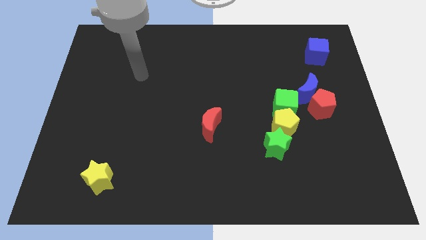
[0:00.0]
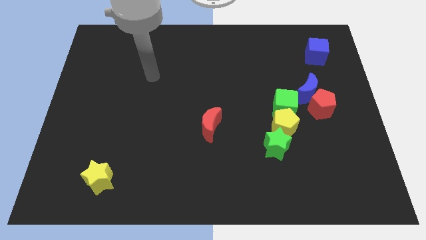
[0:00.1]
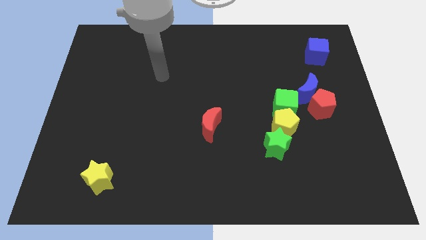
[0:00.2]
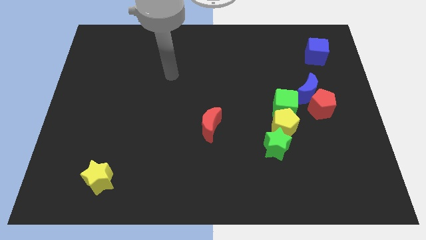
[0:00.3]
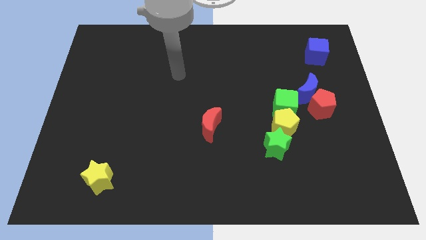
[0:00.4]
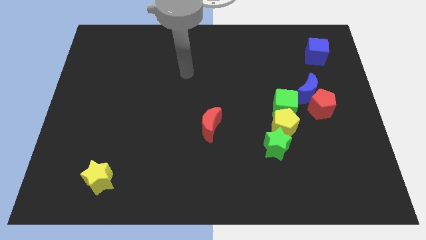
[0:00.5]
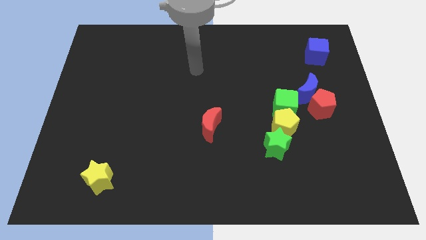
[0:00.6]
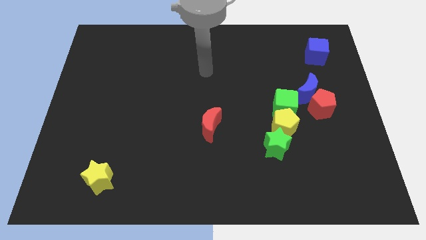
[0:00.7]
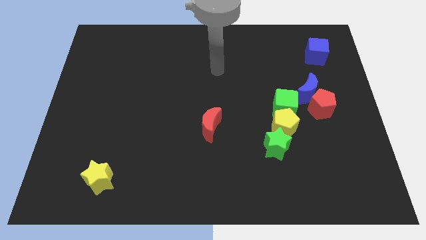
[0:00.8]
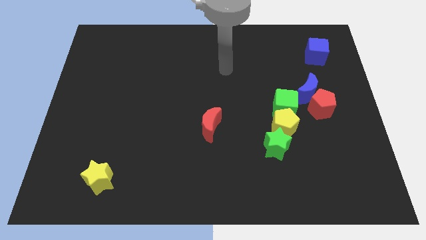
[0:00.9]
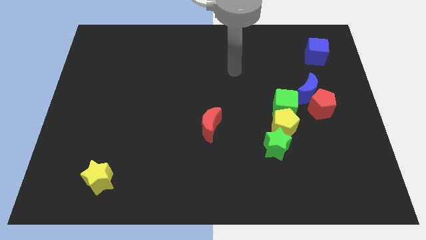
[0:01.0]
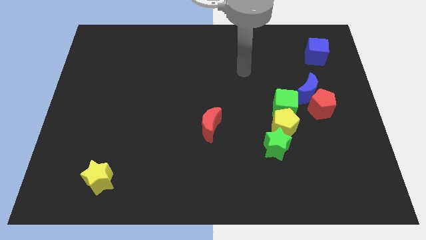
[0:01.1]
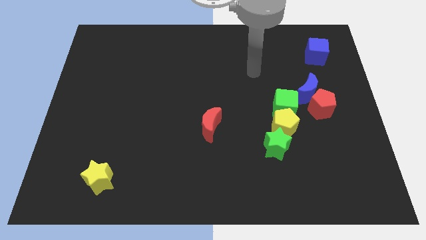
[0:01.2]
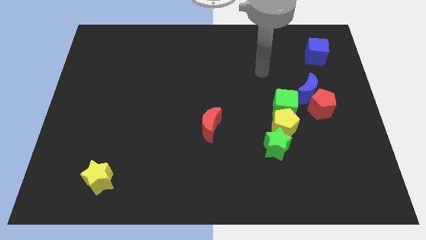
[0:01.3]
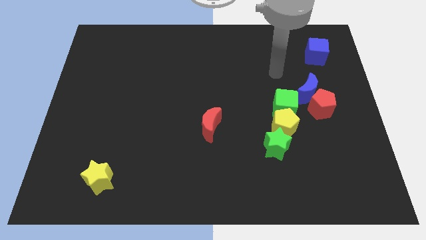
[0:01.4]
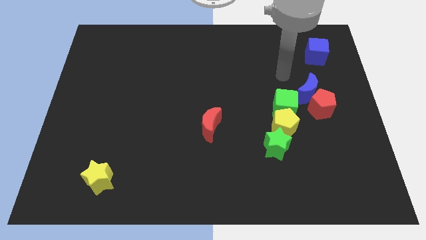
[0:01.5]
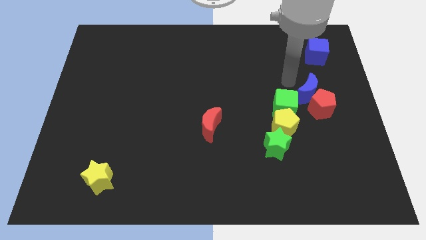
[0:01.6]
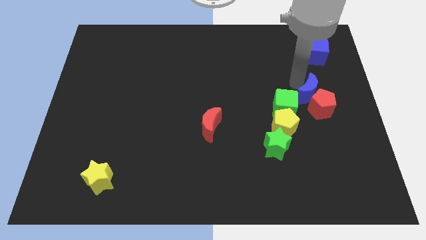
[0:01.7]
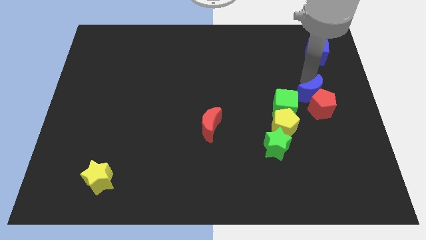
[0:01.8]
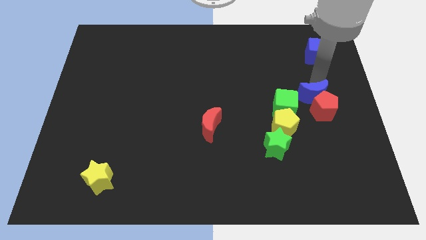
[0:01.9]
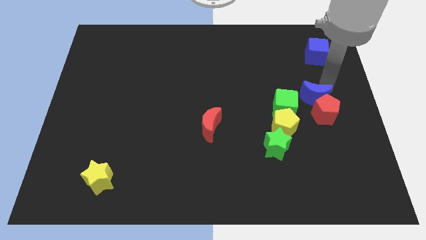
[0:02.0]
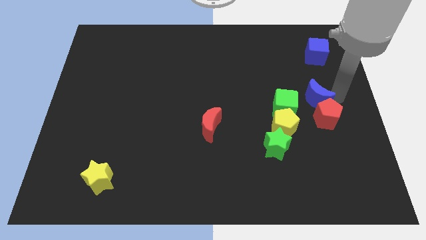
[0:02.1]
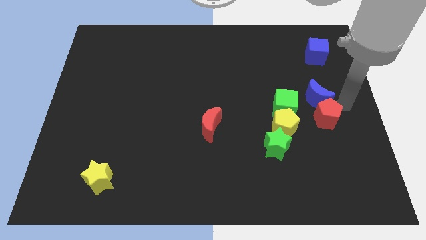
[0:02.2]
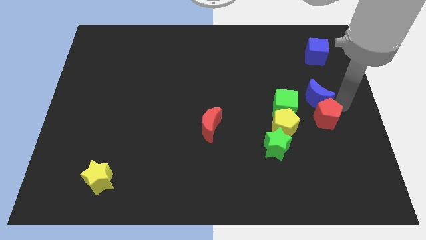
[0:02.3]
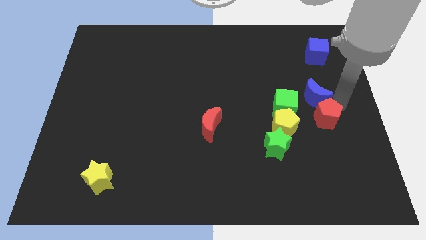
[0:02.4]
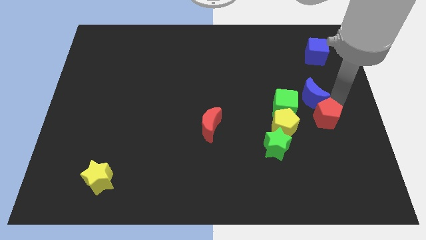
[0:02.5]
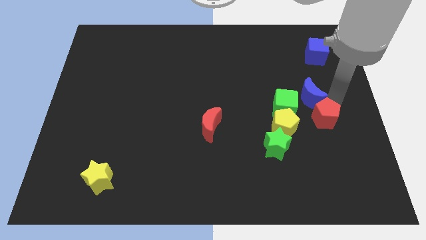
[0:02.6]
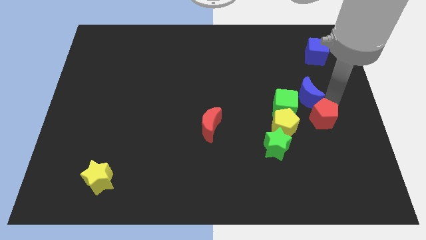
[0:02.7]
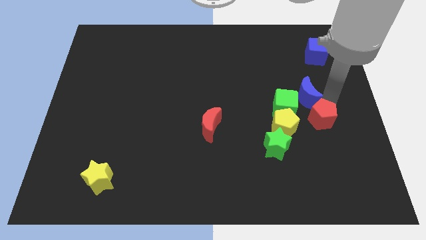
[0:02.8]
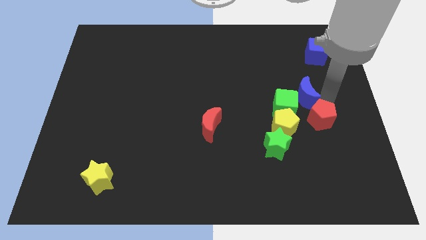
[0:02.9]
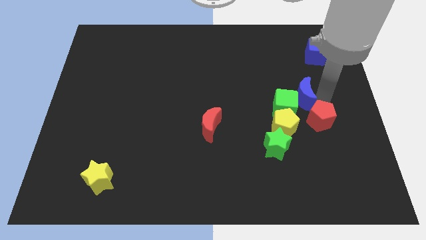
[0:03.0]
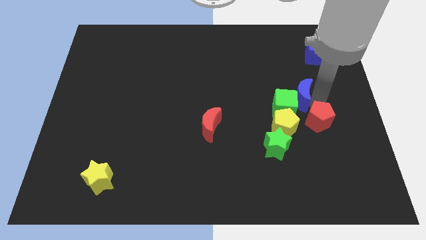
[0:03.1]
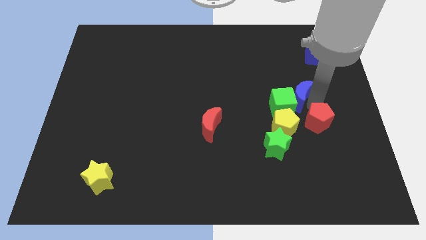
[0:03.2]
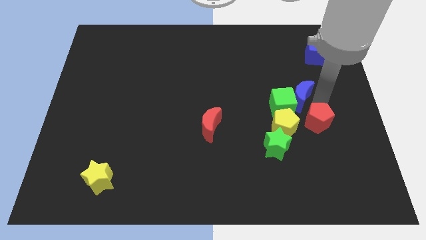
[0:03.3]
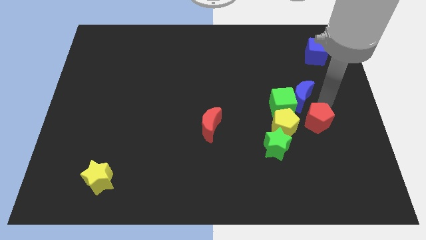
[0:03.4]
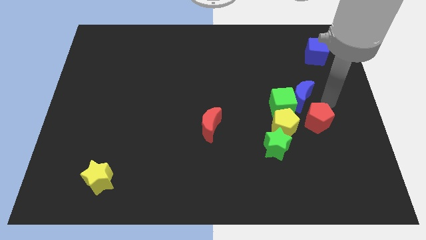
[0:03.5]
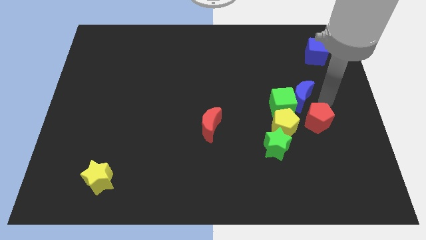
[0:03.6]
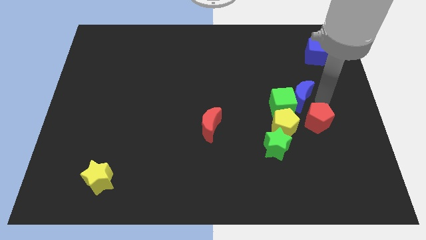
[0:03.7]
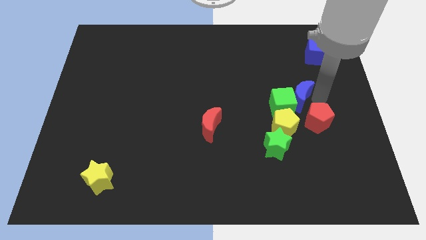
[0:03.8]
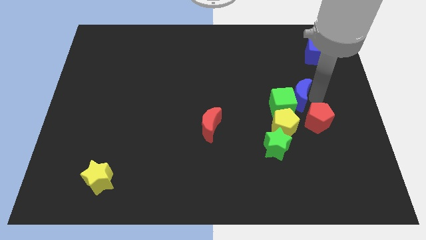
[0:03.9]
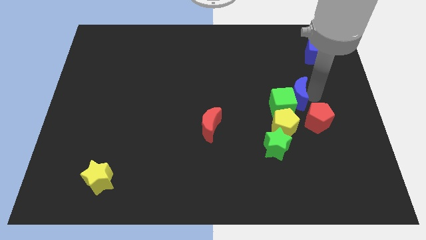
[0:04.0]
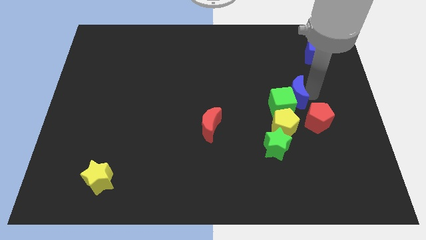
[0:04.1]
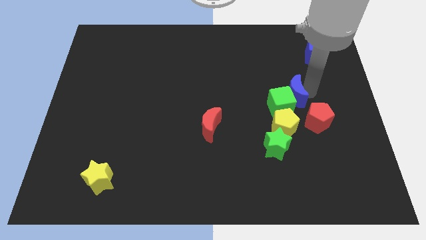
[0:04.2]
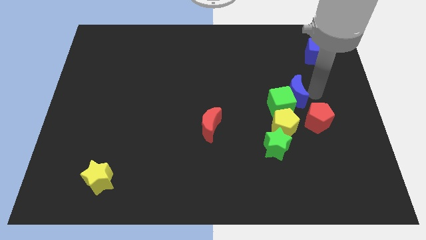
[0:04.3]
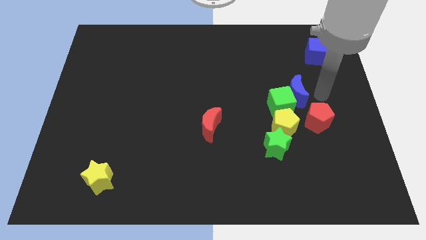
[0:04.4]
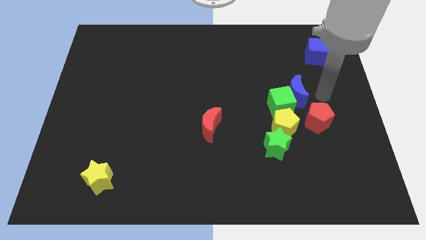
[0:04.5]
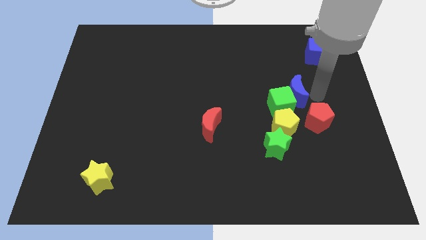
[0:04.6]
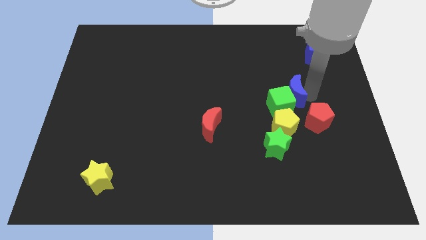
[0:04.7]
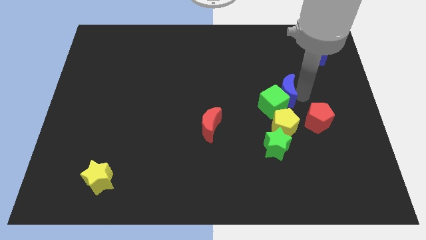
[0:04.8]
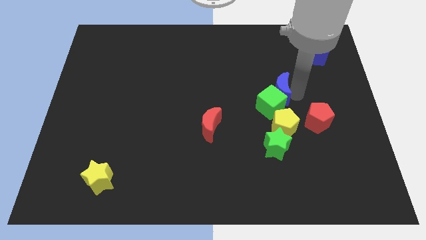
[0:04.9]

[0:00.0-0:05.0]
slide the blue moon to the top side of the green star

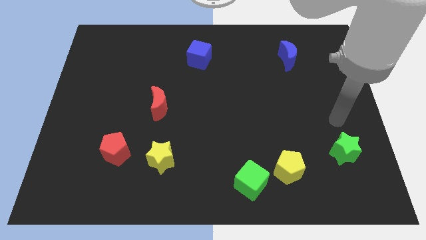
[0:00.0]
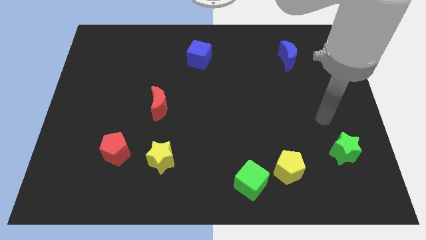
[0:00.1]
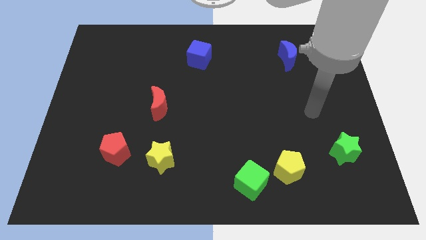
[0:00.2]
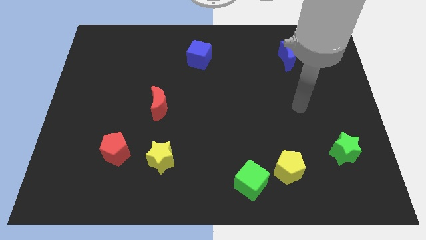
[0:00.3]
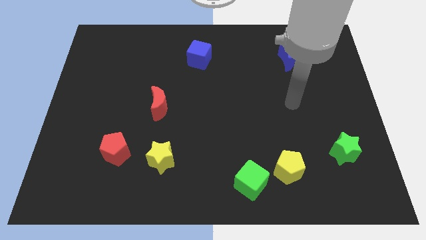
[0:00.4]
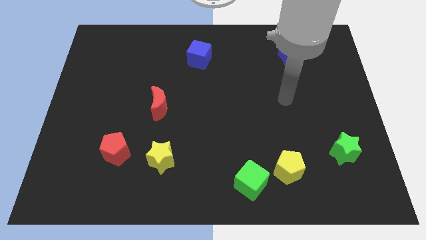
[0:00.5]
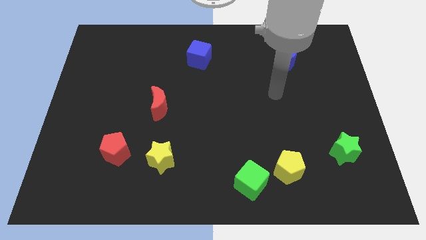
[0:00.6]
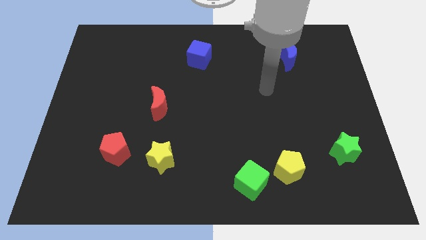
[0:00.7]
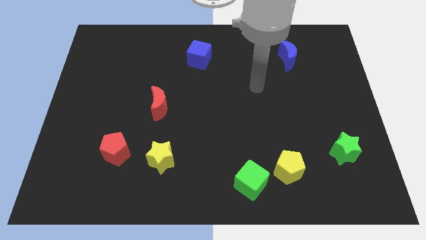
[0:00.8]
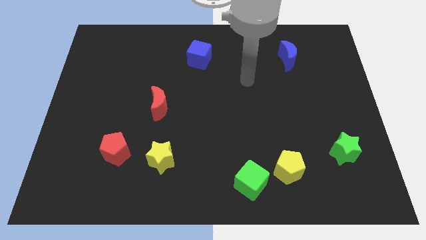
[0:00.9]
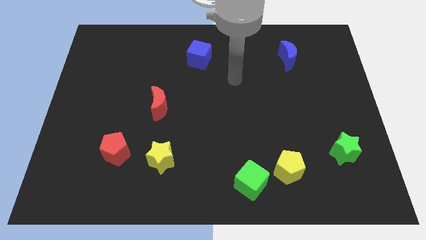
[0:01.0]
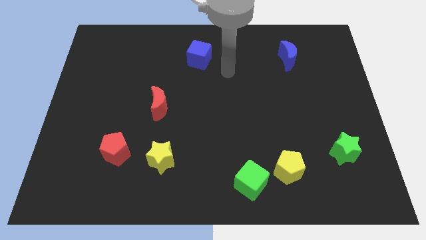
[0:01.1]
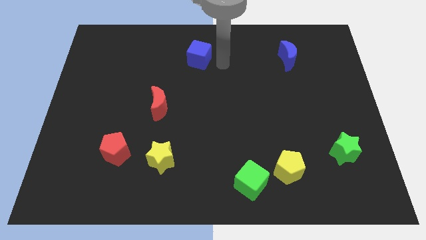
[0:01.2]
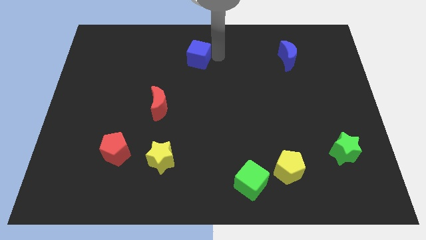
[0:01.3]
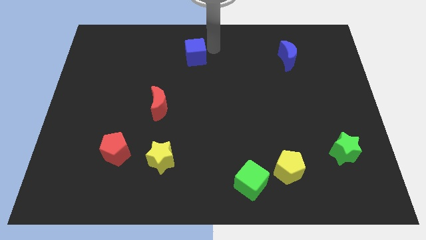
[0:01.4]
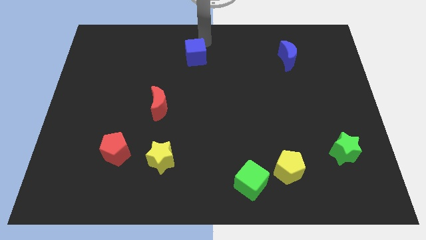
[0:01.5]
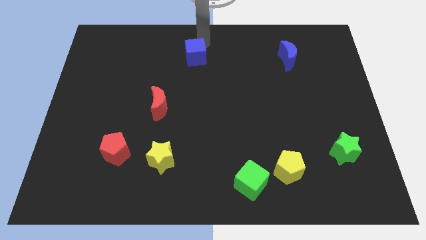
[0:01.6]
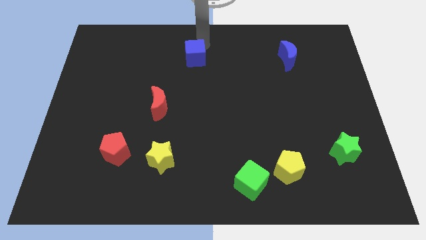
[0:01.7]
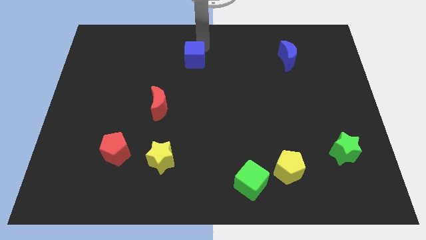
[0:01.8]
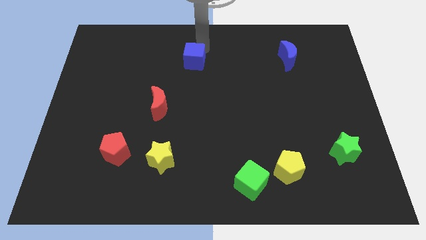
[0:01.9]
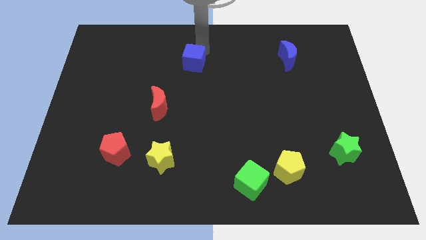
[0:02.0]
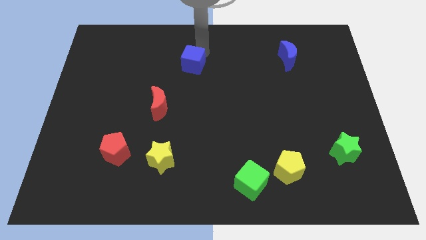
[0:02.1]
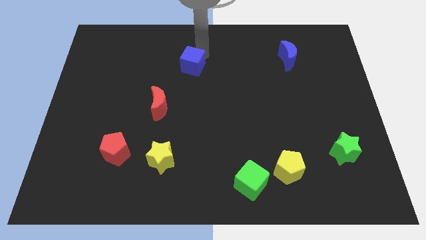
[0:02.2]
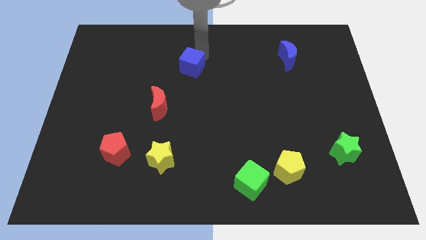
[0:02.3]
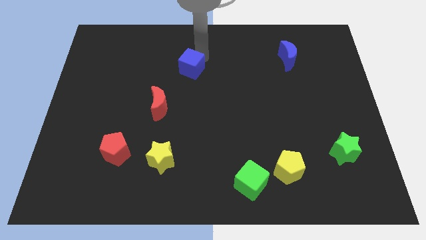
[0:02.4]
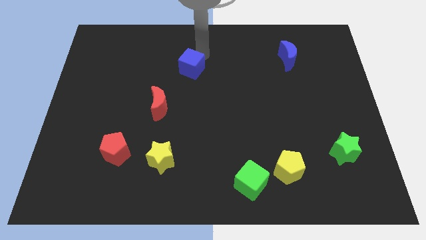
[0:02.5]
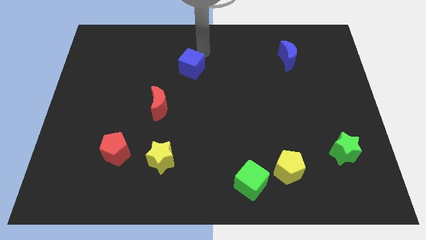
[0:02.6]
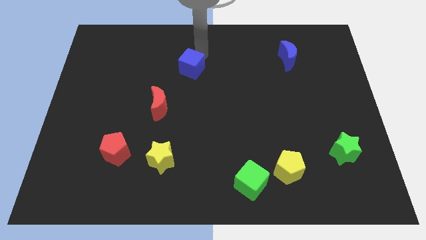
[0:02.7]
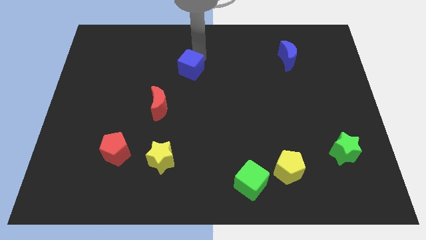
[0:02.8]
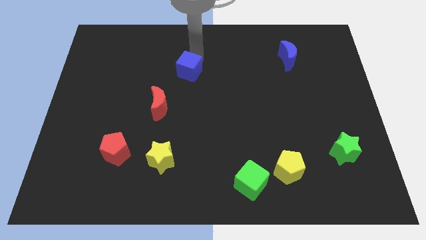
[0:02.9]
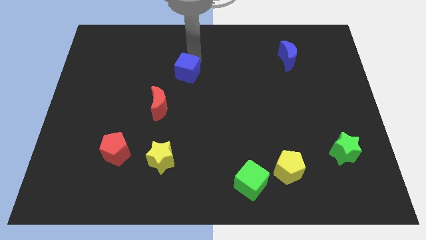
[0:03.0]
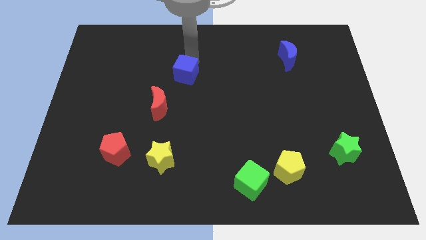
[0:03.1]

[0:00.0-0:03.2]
move the blue cube diagonally up and to the right of the red moon
